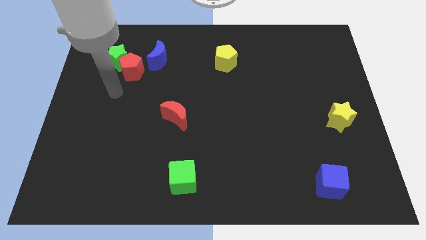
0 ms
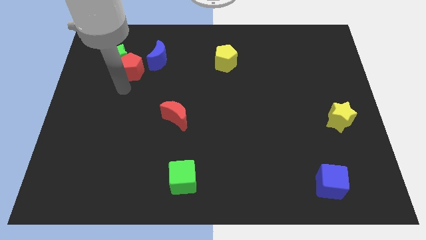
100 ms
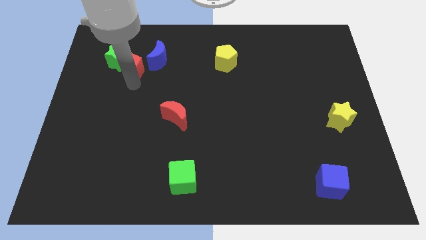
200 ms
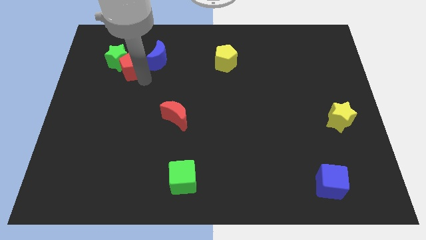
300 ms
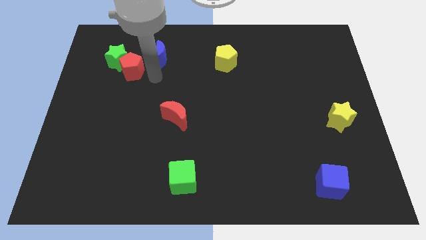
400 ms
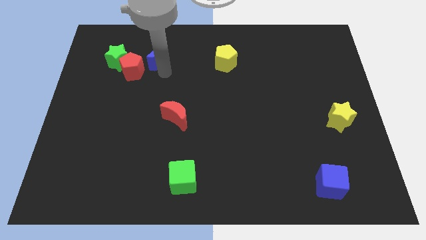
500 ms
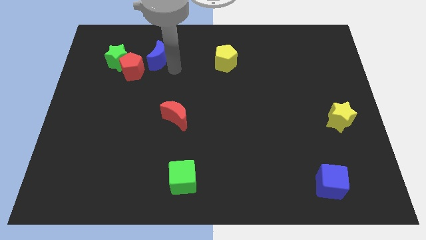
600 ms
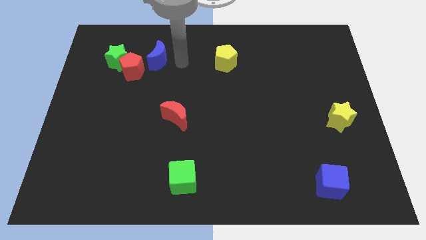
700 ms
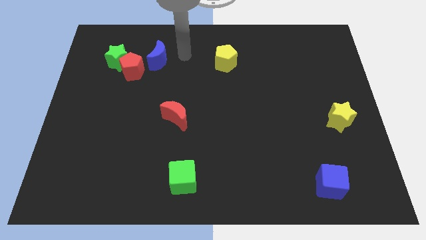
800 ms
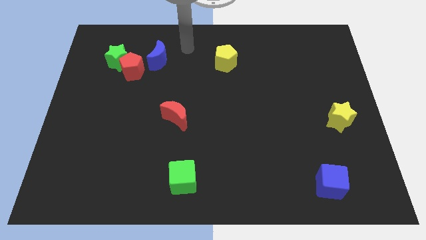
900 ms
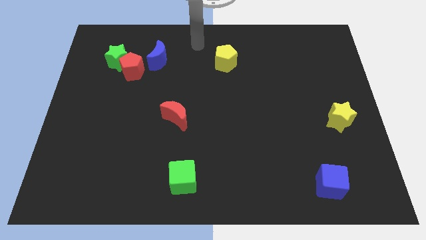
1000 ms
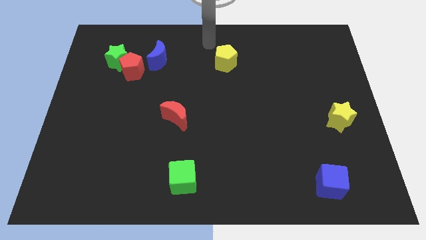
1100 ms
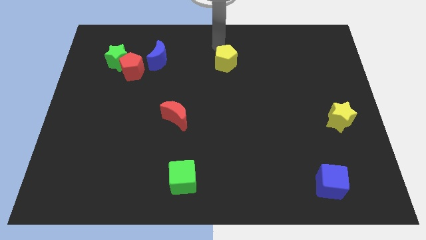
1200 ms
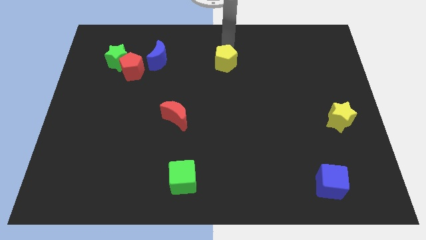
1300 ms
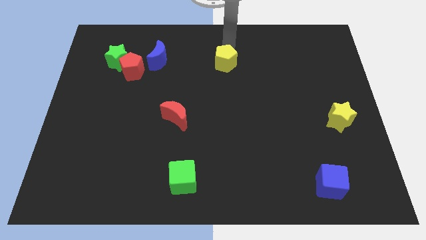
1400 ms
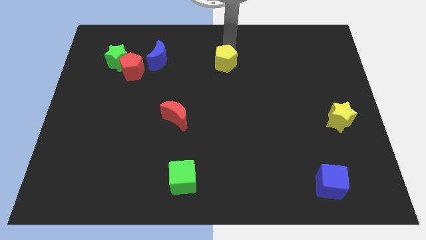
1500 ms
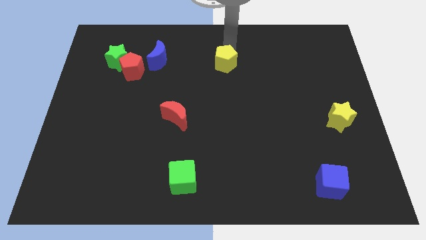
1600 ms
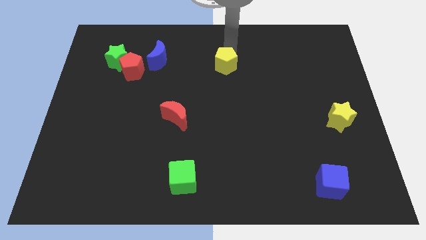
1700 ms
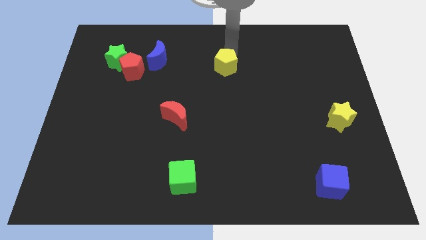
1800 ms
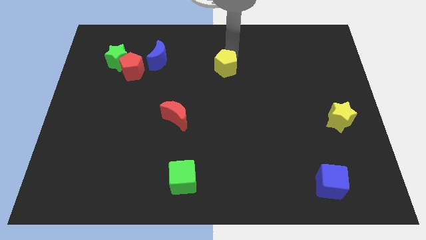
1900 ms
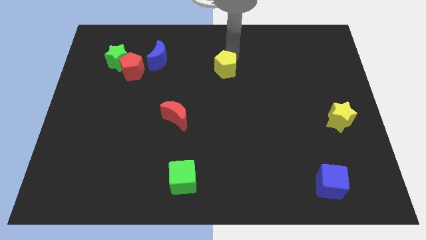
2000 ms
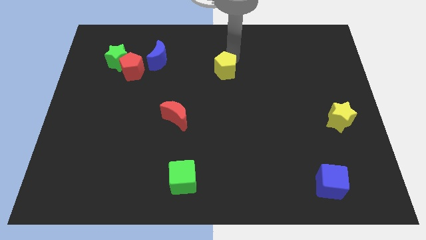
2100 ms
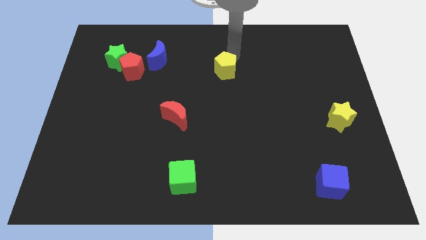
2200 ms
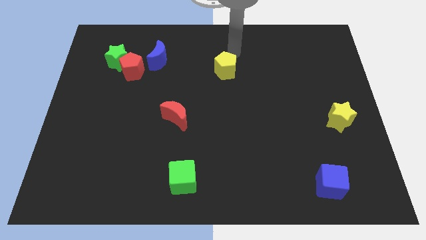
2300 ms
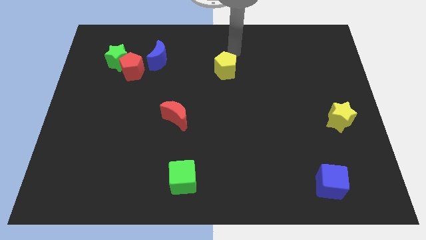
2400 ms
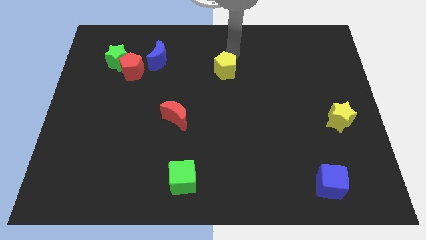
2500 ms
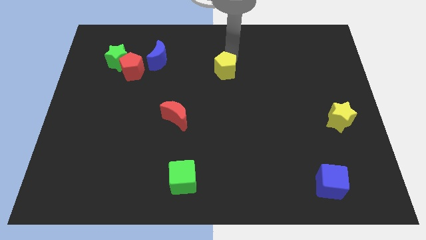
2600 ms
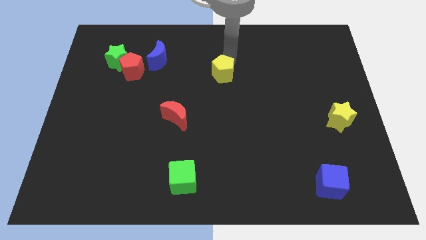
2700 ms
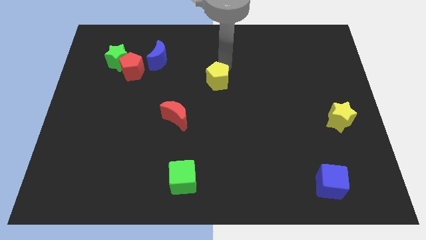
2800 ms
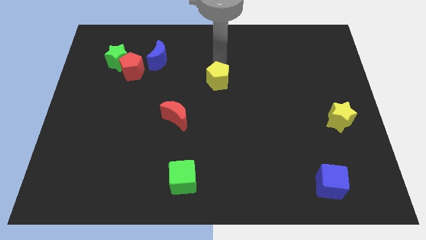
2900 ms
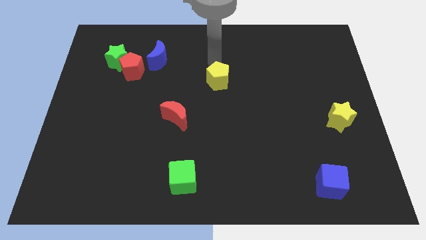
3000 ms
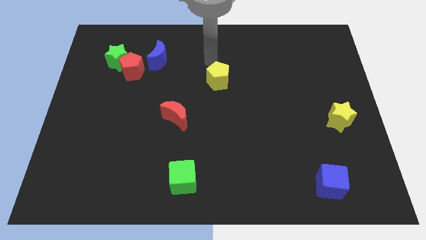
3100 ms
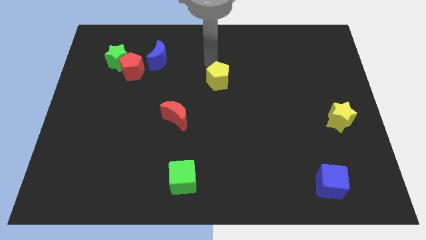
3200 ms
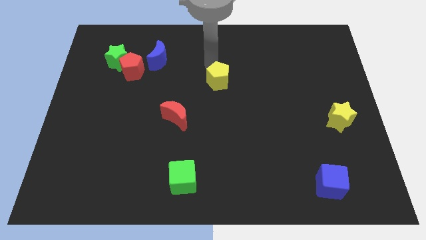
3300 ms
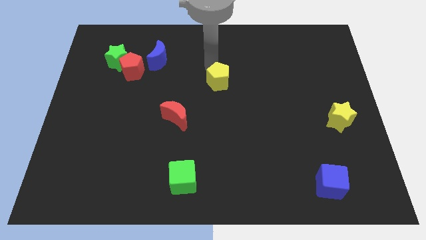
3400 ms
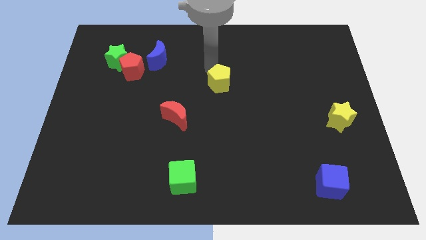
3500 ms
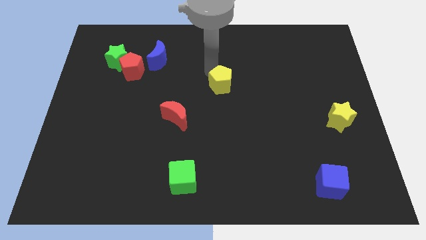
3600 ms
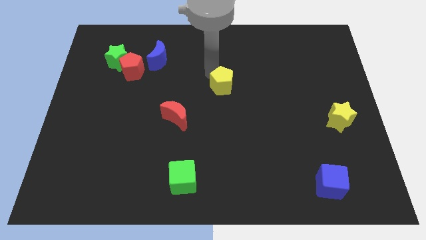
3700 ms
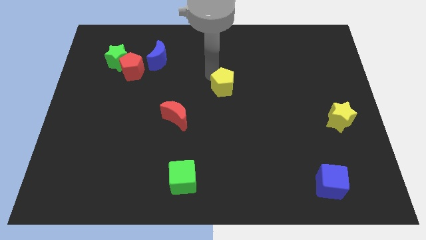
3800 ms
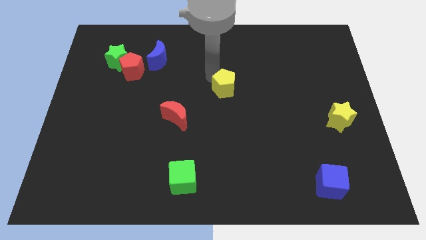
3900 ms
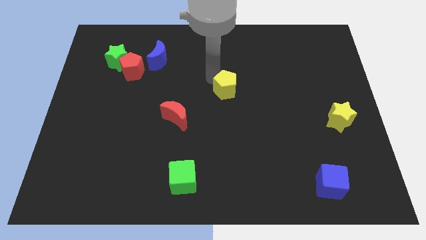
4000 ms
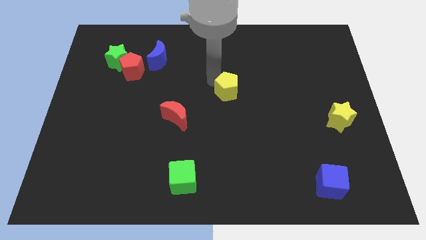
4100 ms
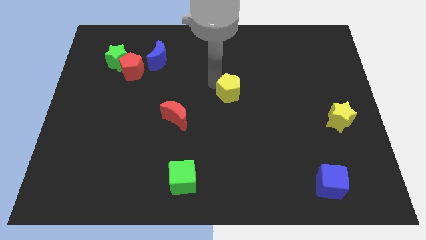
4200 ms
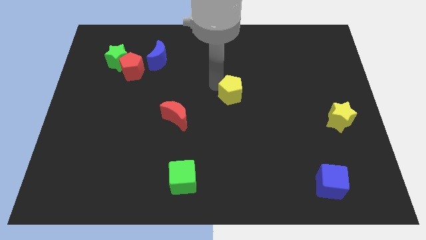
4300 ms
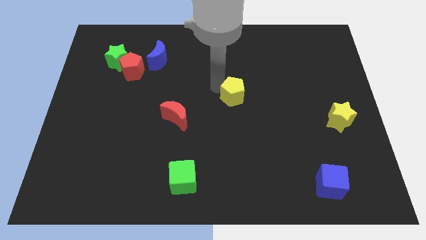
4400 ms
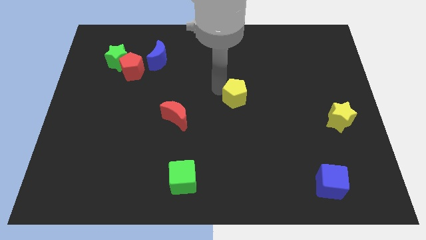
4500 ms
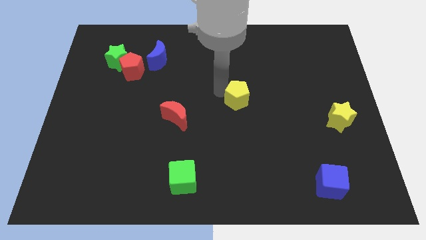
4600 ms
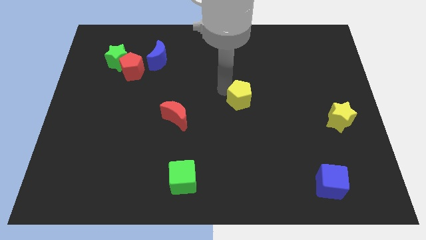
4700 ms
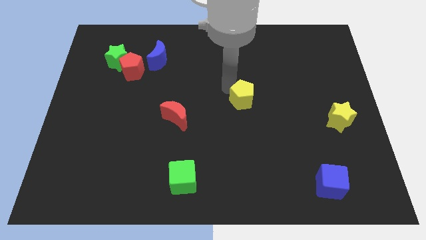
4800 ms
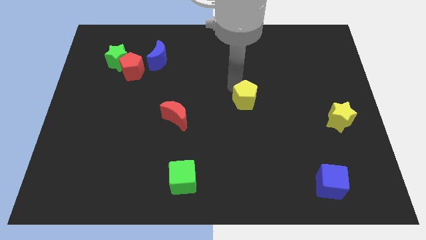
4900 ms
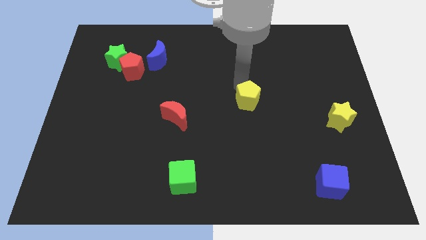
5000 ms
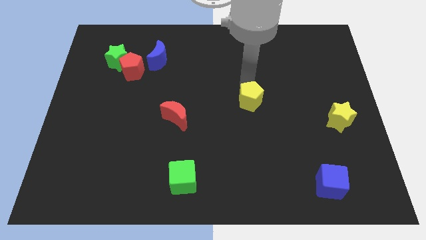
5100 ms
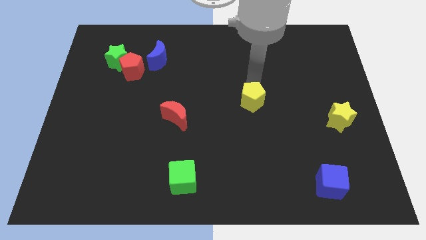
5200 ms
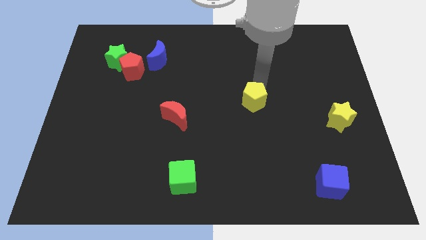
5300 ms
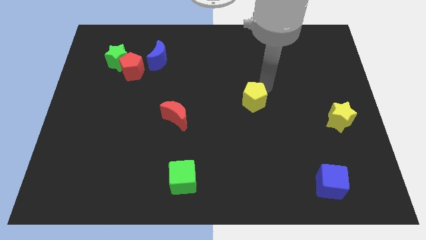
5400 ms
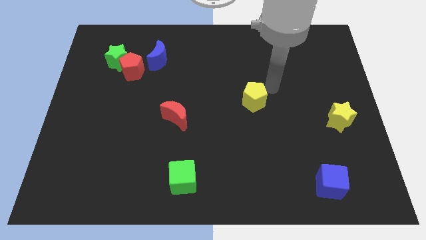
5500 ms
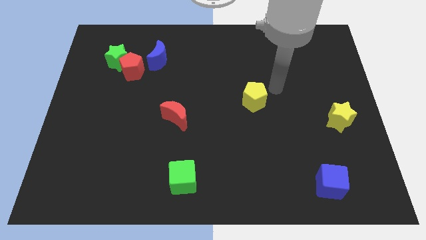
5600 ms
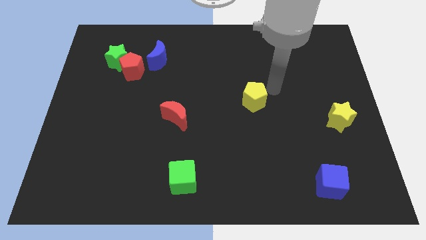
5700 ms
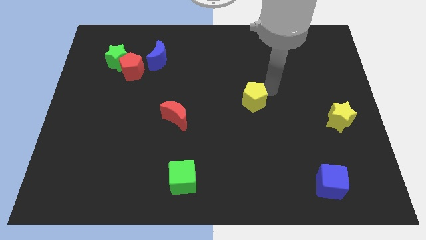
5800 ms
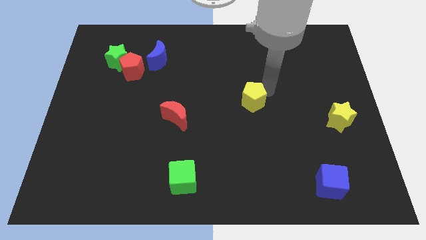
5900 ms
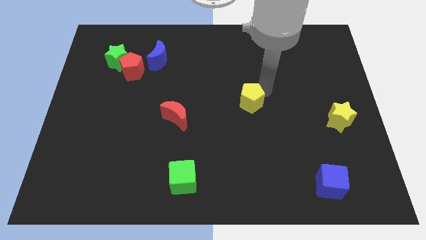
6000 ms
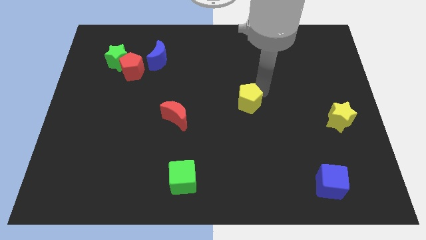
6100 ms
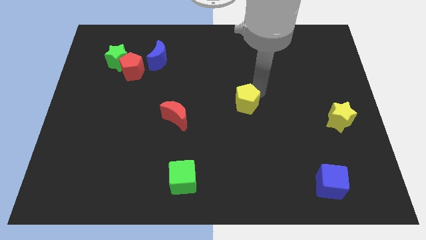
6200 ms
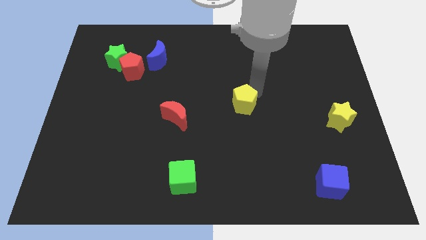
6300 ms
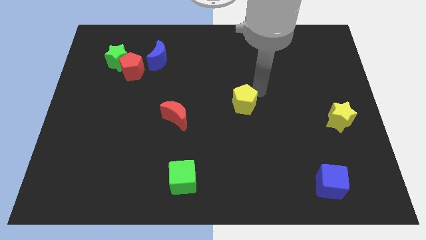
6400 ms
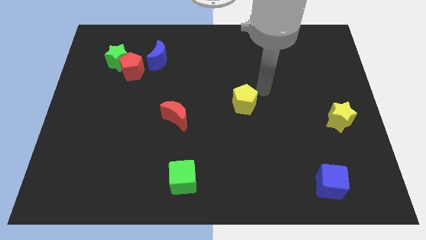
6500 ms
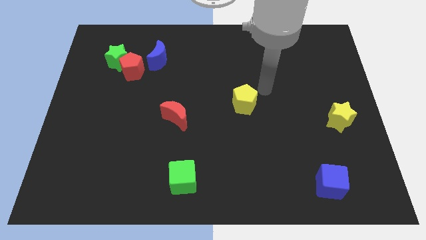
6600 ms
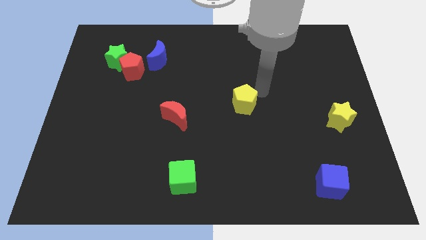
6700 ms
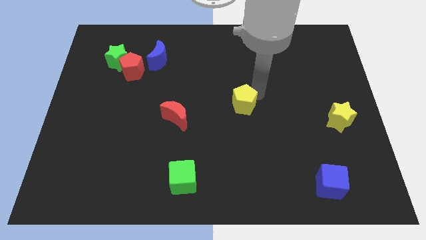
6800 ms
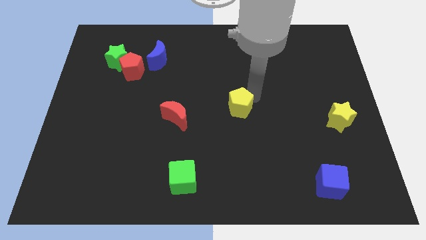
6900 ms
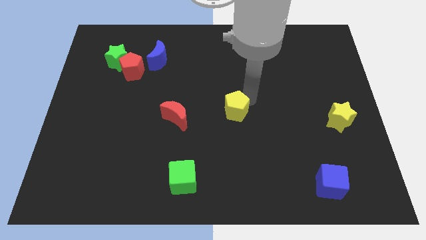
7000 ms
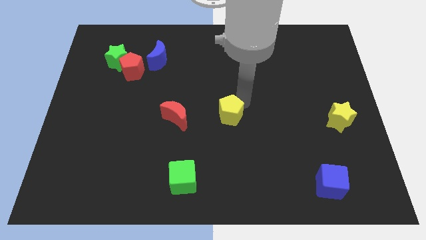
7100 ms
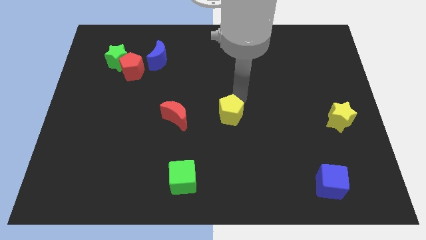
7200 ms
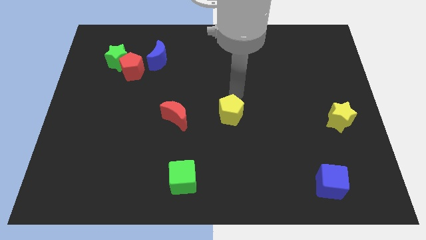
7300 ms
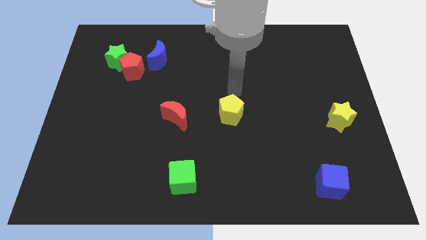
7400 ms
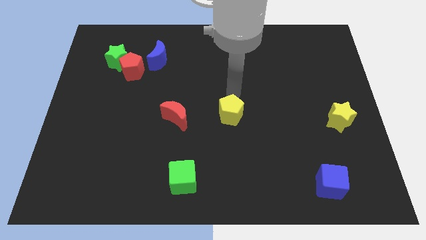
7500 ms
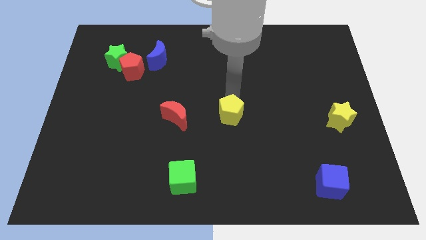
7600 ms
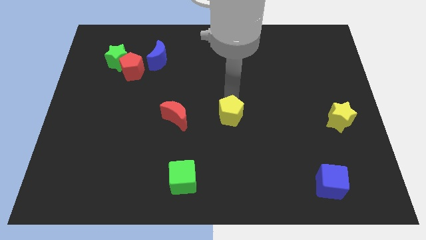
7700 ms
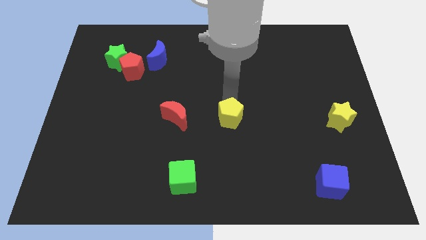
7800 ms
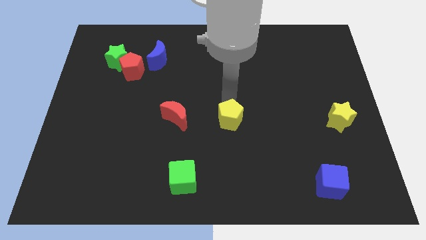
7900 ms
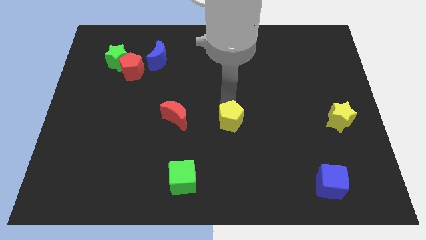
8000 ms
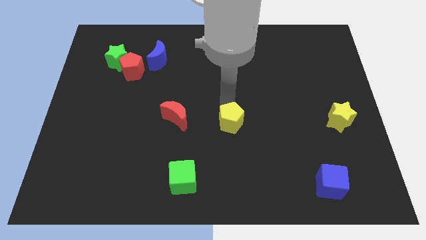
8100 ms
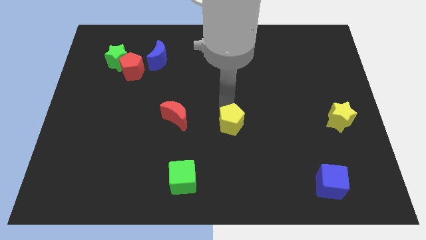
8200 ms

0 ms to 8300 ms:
push the yellow pentagon down

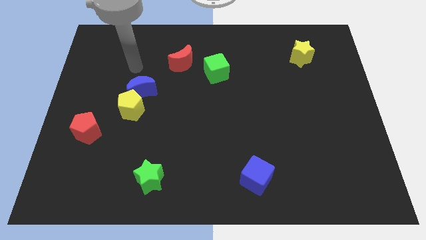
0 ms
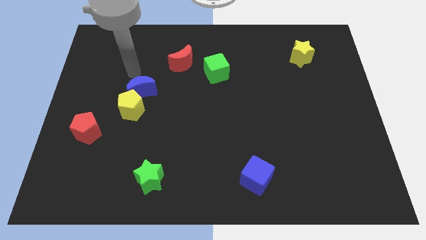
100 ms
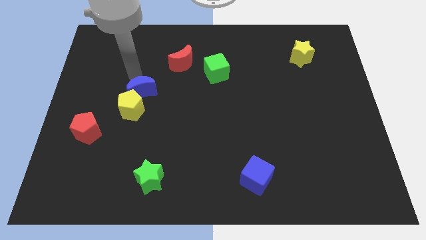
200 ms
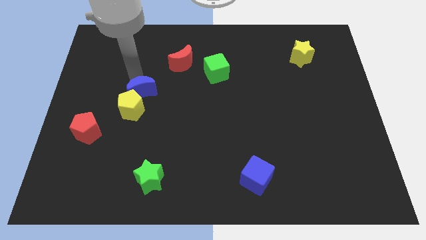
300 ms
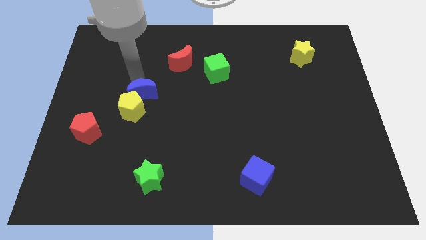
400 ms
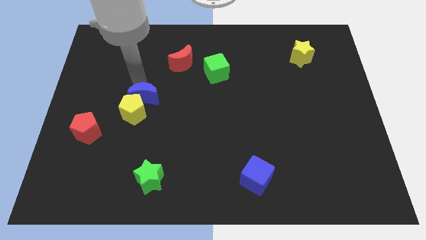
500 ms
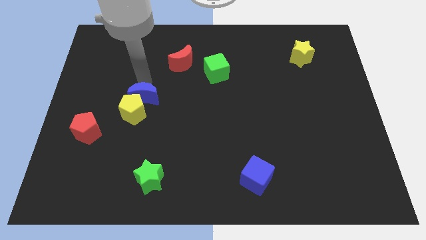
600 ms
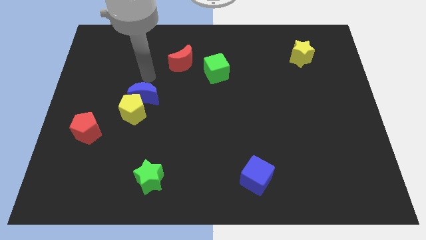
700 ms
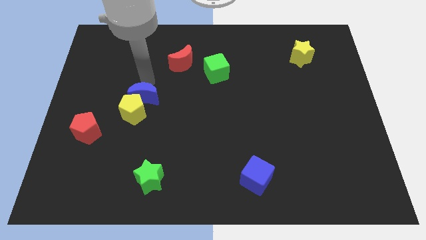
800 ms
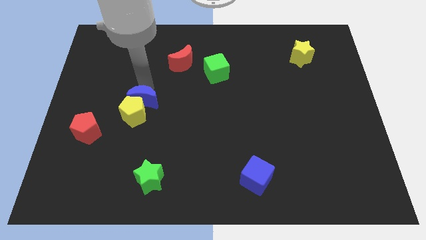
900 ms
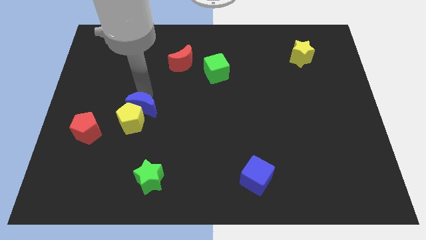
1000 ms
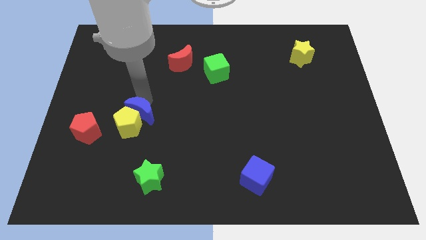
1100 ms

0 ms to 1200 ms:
move the blue moon somewhat downwards
